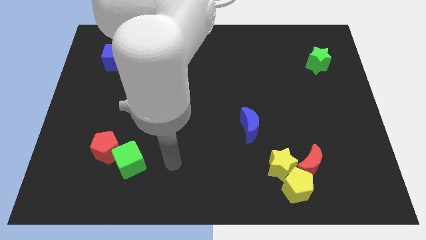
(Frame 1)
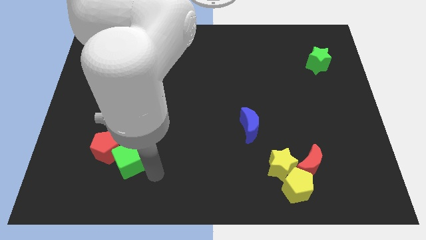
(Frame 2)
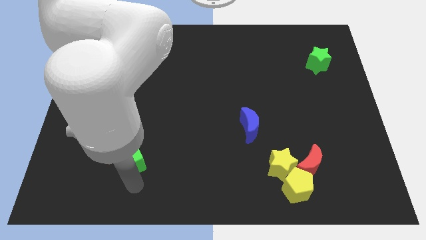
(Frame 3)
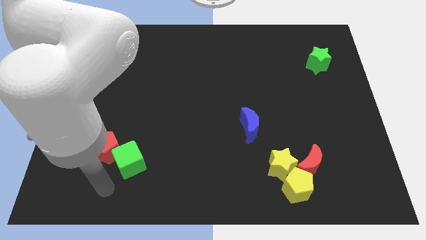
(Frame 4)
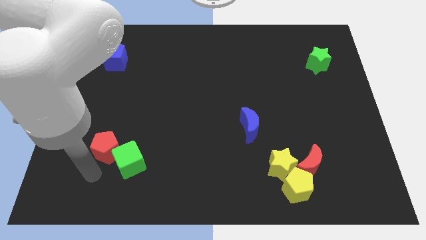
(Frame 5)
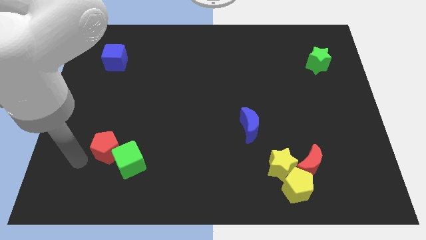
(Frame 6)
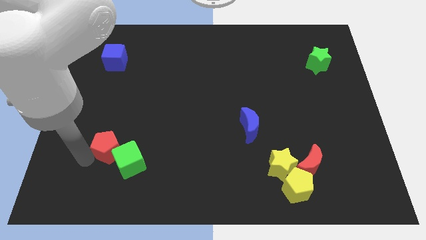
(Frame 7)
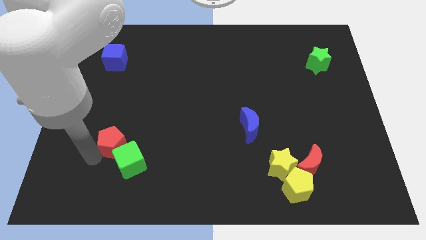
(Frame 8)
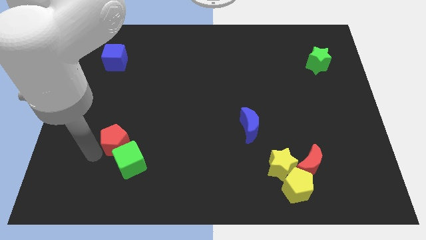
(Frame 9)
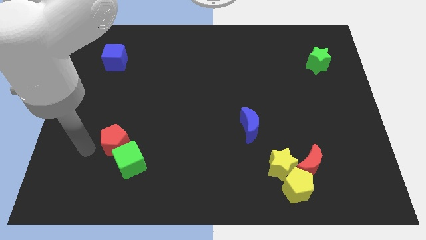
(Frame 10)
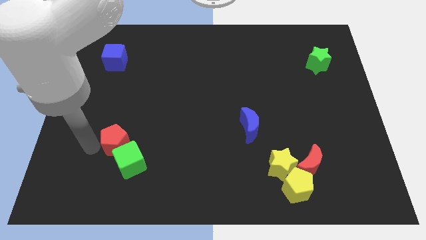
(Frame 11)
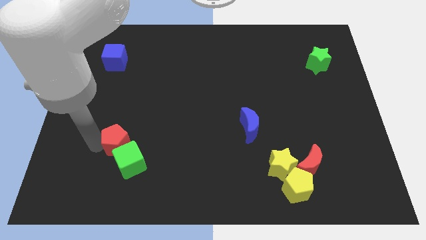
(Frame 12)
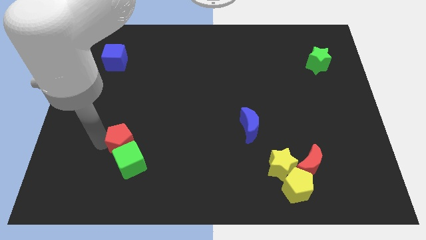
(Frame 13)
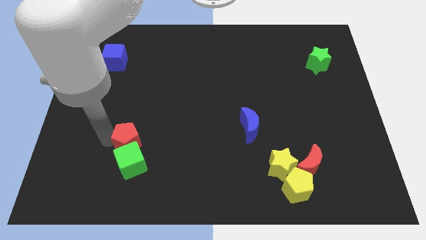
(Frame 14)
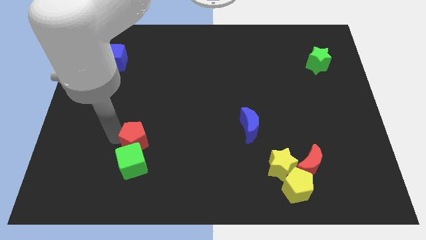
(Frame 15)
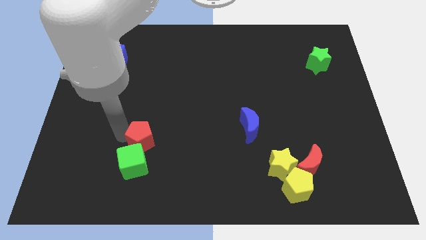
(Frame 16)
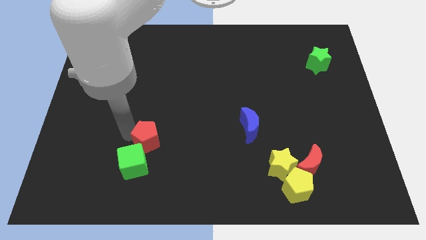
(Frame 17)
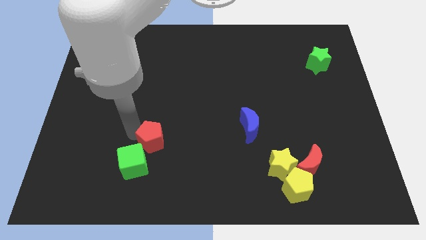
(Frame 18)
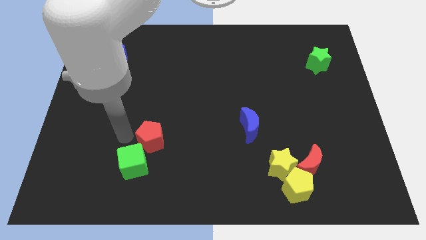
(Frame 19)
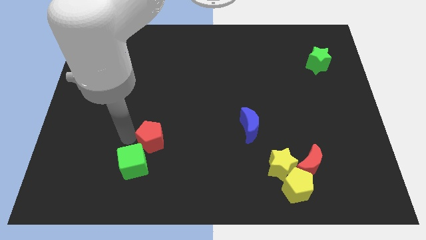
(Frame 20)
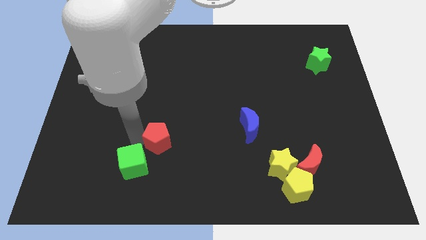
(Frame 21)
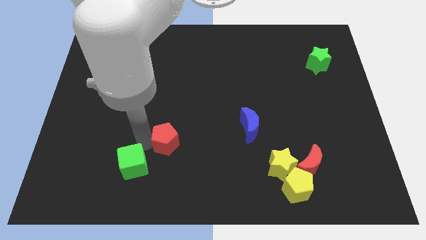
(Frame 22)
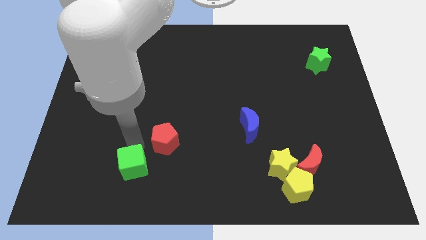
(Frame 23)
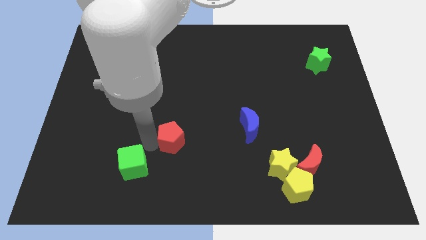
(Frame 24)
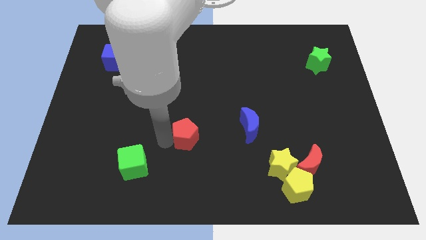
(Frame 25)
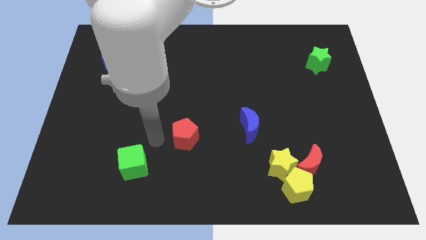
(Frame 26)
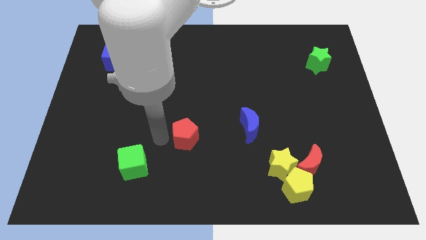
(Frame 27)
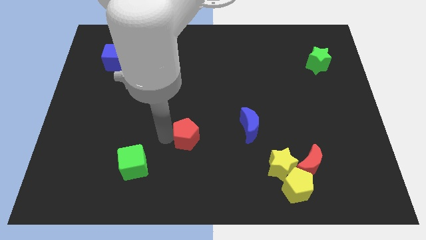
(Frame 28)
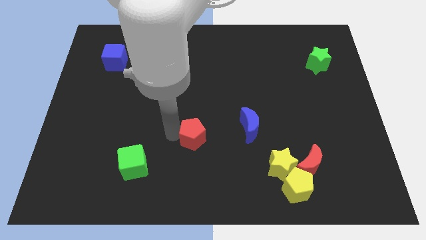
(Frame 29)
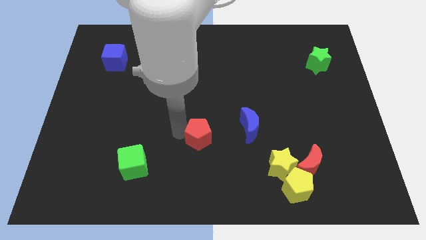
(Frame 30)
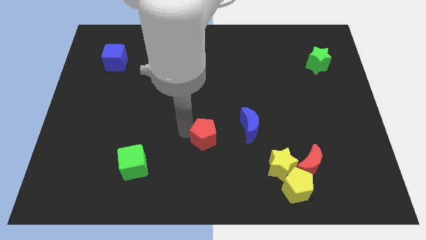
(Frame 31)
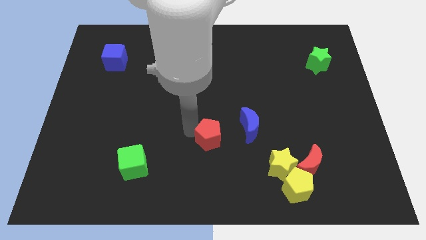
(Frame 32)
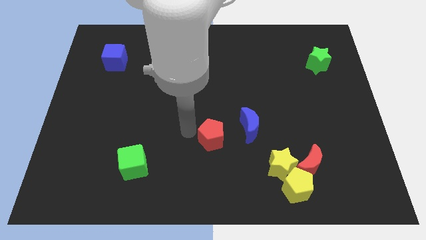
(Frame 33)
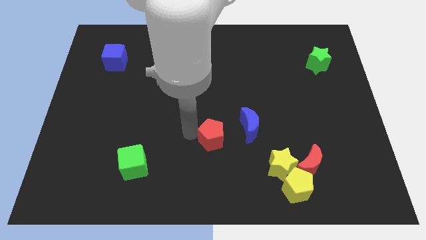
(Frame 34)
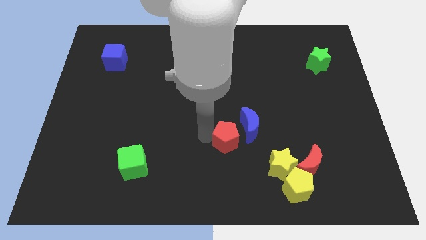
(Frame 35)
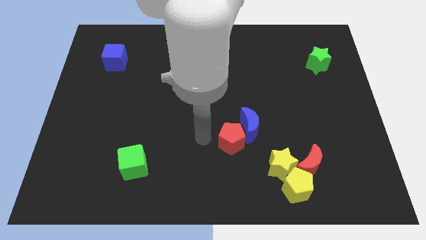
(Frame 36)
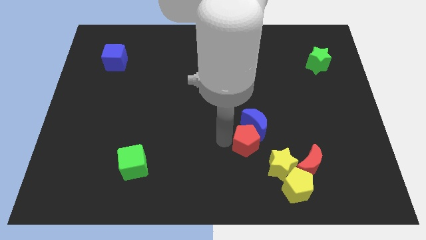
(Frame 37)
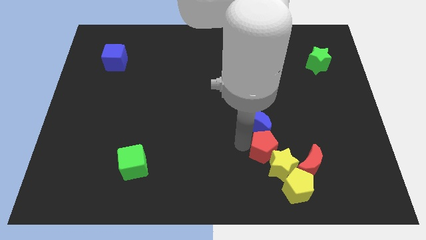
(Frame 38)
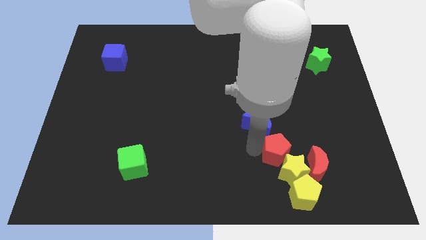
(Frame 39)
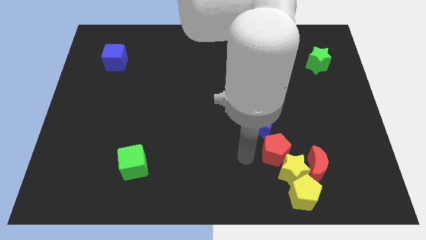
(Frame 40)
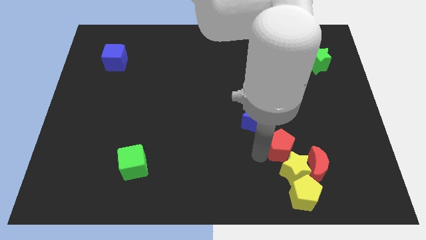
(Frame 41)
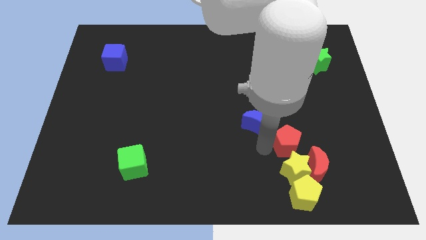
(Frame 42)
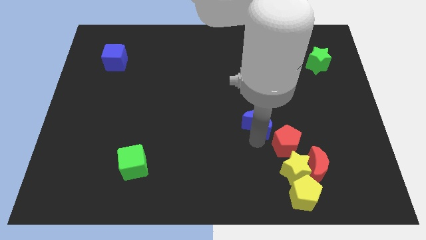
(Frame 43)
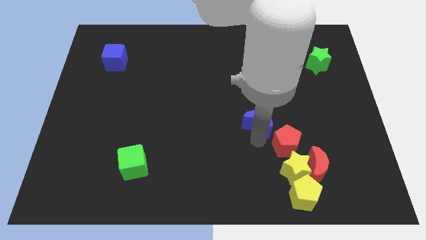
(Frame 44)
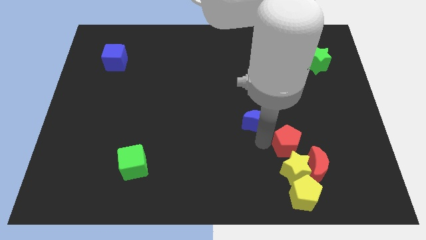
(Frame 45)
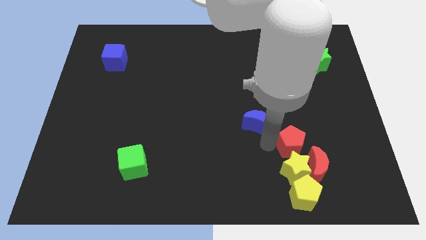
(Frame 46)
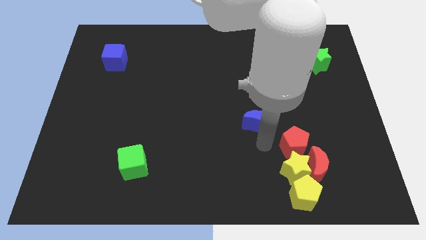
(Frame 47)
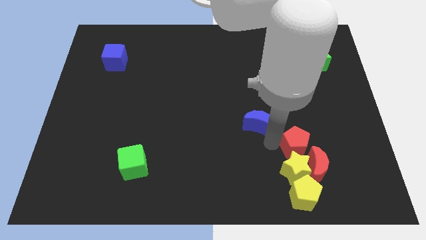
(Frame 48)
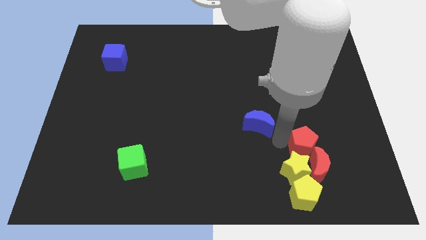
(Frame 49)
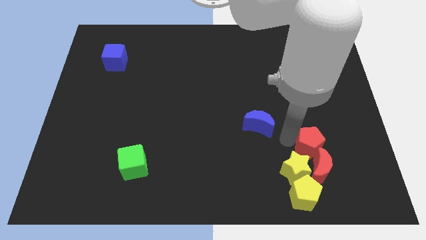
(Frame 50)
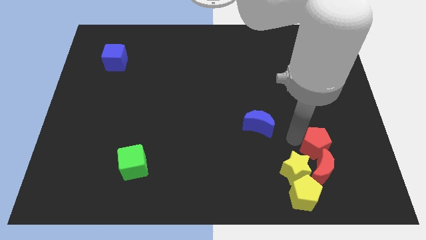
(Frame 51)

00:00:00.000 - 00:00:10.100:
slide the red pentagon to the top right of the red moon

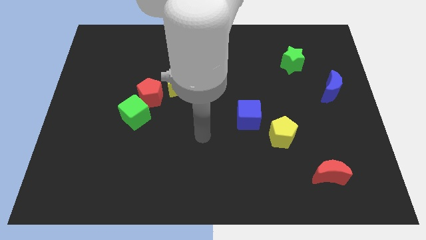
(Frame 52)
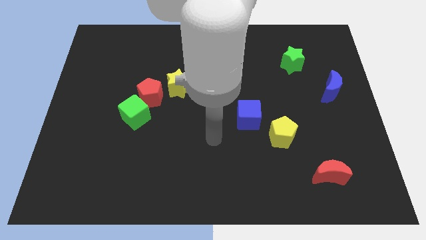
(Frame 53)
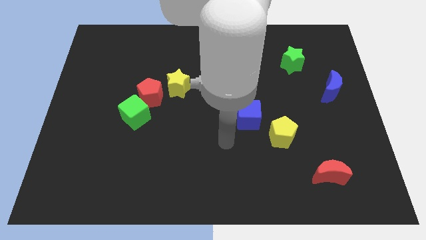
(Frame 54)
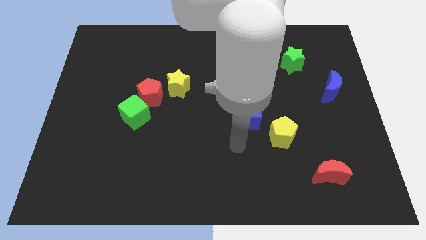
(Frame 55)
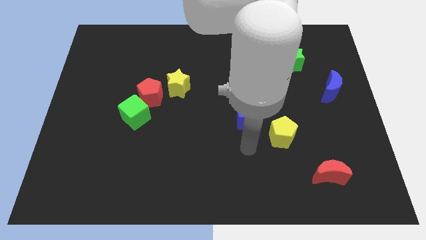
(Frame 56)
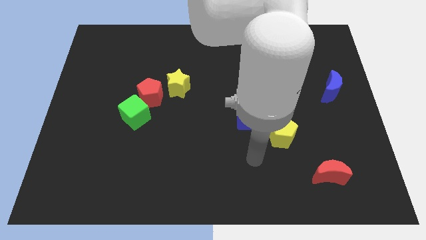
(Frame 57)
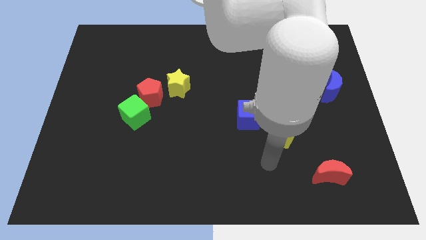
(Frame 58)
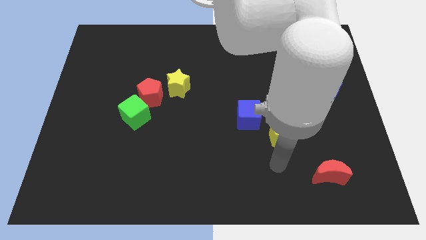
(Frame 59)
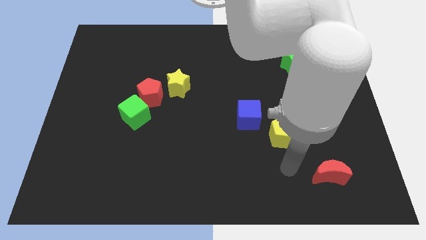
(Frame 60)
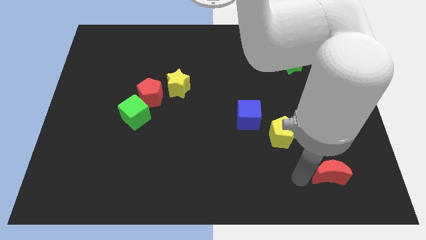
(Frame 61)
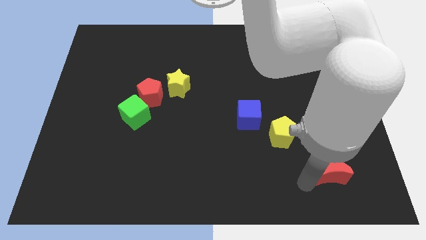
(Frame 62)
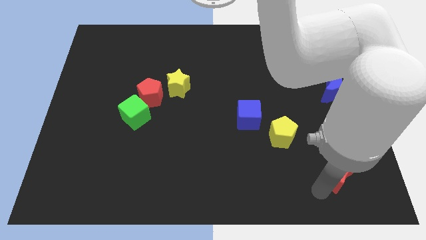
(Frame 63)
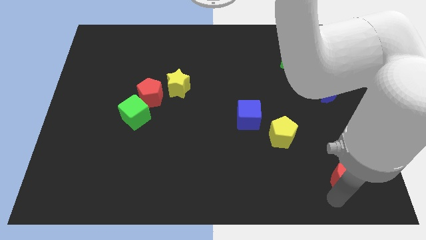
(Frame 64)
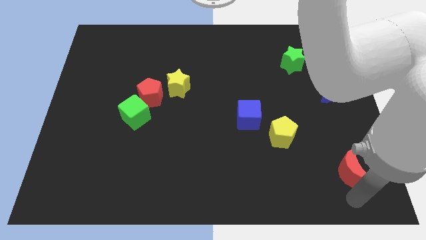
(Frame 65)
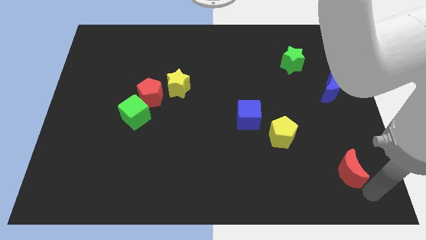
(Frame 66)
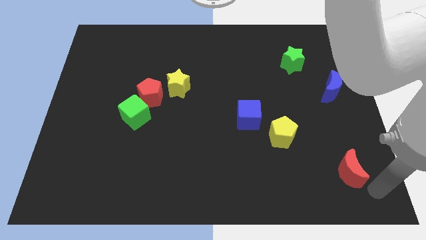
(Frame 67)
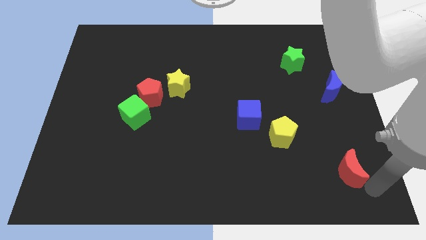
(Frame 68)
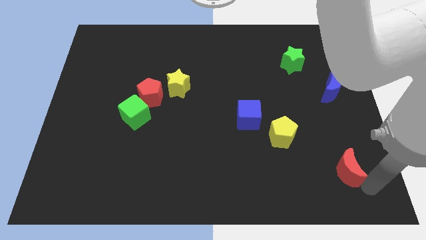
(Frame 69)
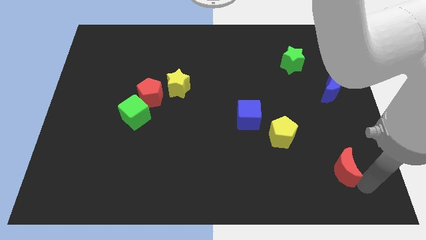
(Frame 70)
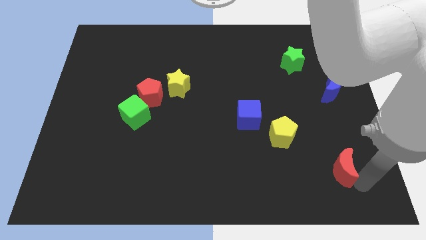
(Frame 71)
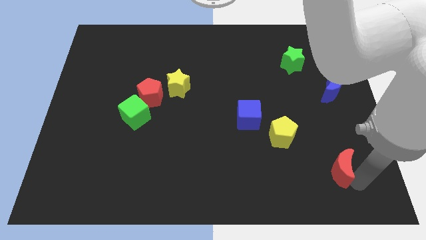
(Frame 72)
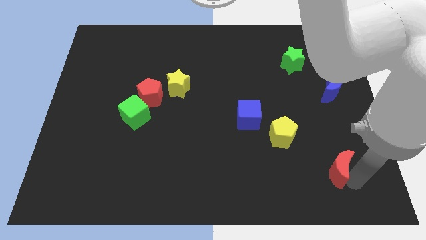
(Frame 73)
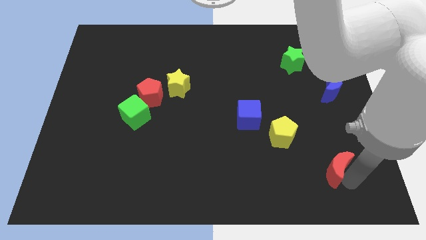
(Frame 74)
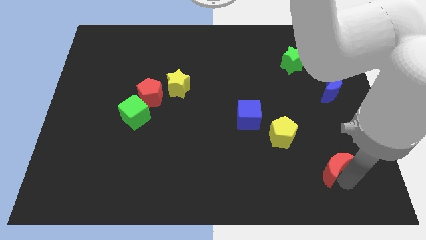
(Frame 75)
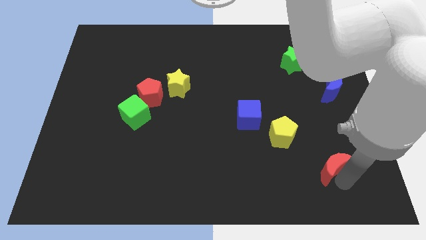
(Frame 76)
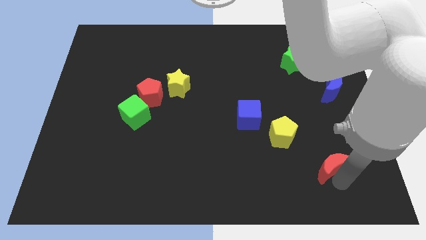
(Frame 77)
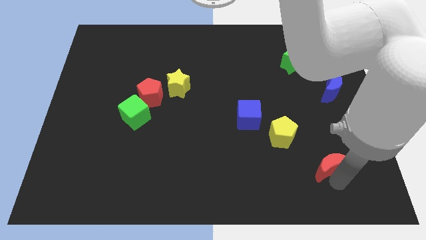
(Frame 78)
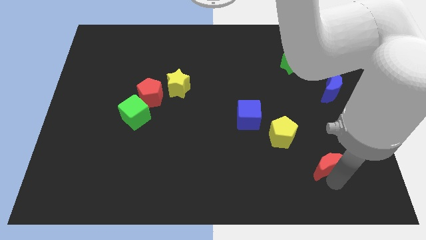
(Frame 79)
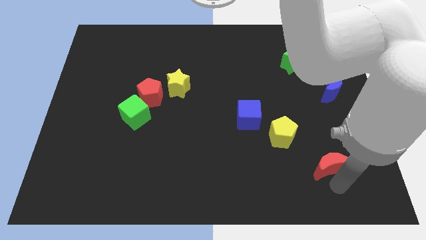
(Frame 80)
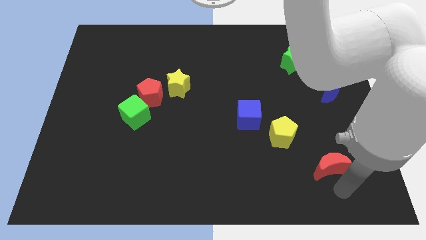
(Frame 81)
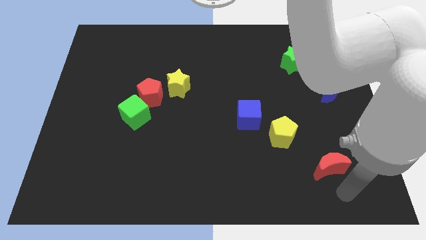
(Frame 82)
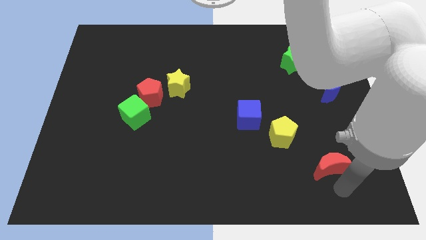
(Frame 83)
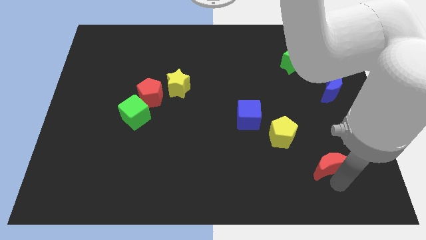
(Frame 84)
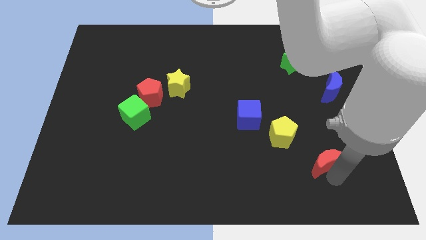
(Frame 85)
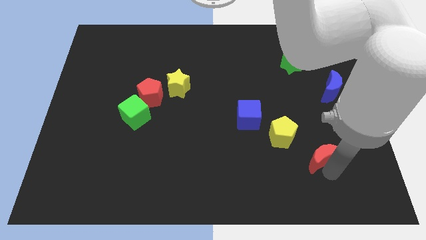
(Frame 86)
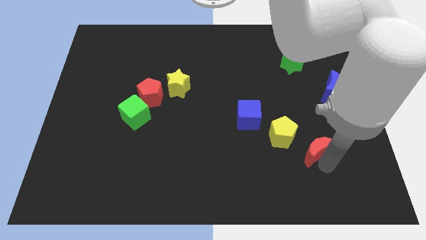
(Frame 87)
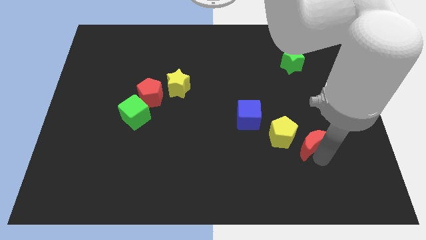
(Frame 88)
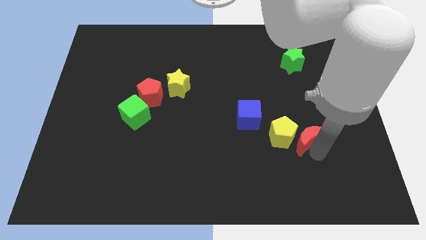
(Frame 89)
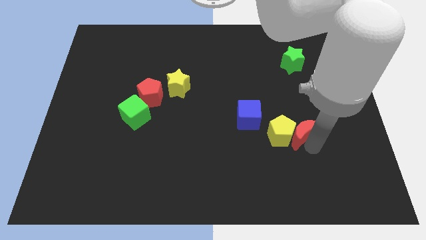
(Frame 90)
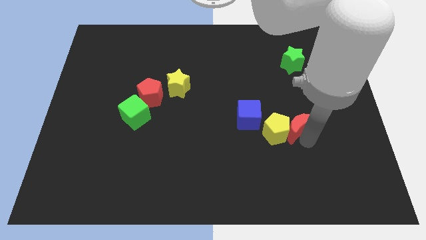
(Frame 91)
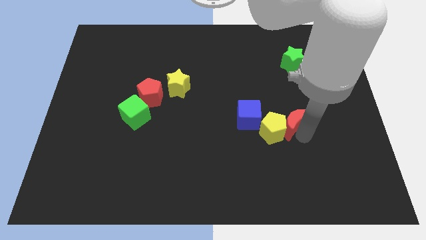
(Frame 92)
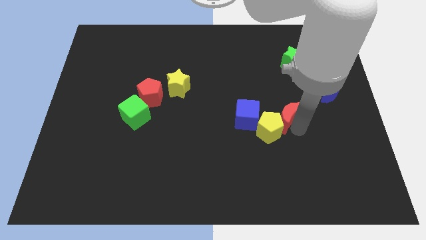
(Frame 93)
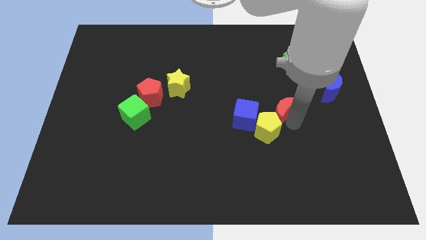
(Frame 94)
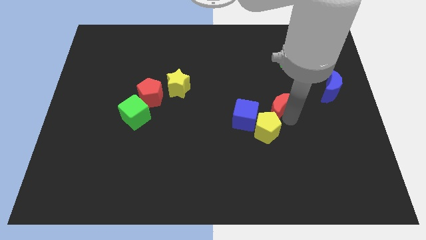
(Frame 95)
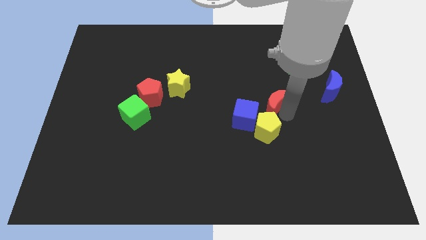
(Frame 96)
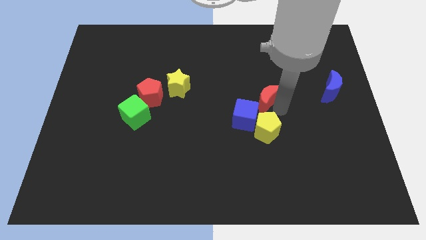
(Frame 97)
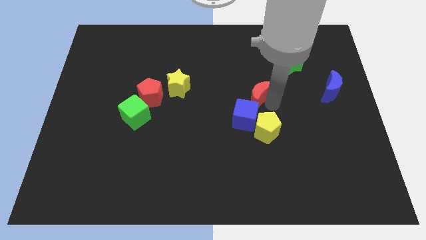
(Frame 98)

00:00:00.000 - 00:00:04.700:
slide the red moon to the top of the blue cube
